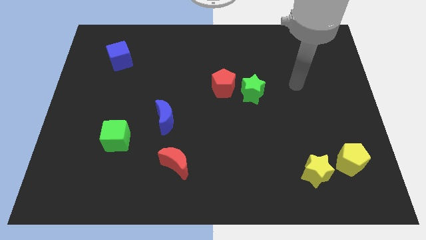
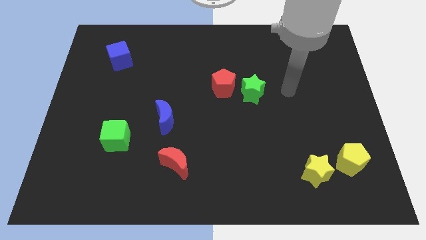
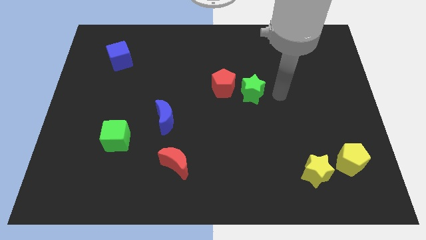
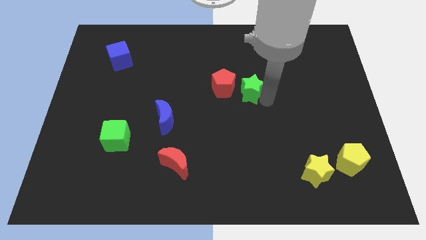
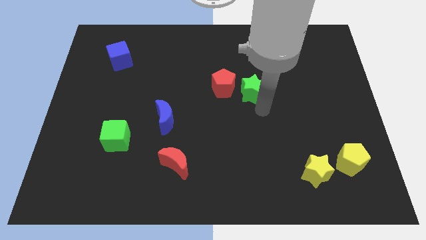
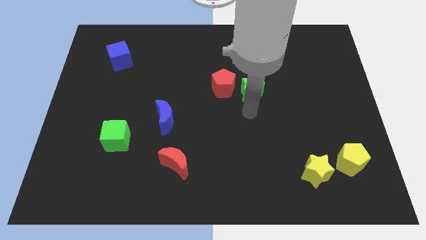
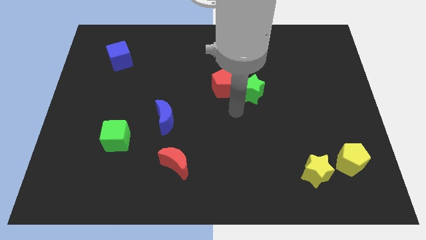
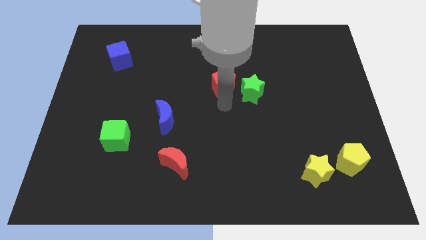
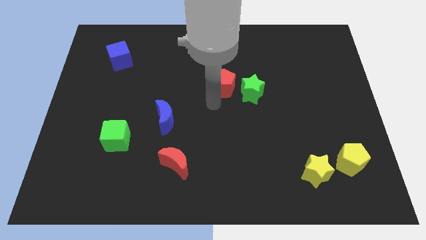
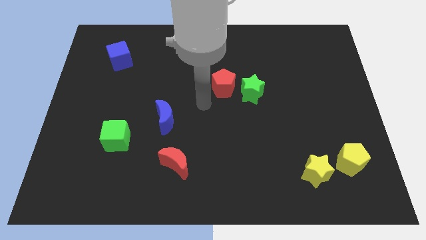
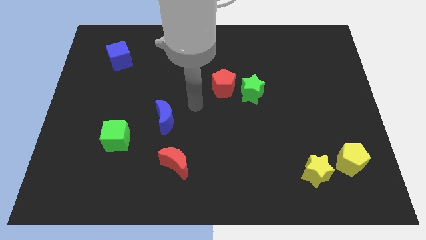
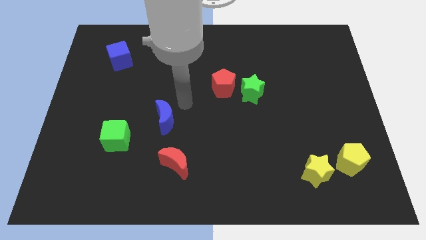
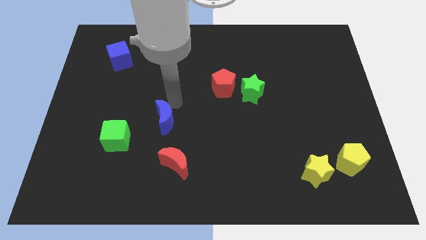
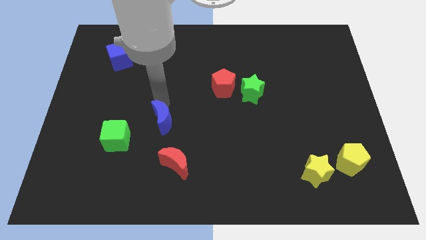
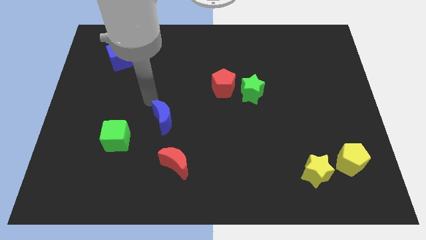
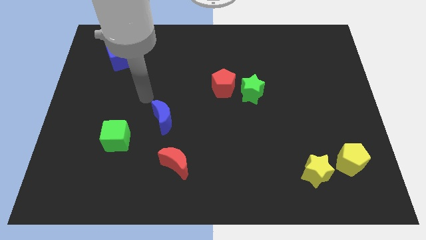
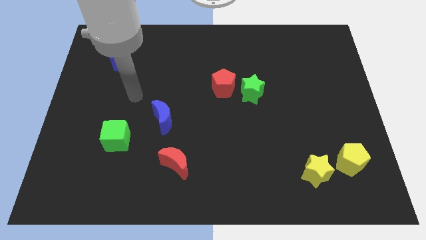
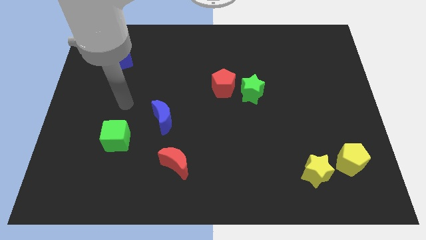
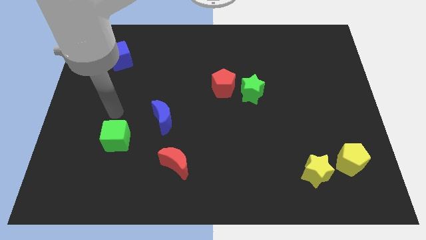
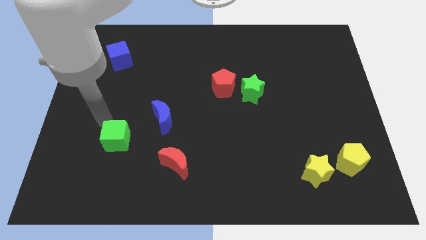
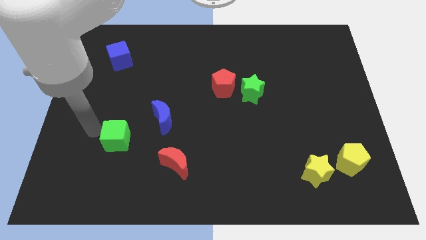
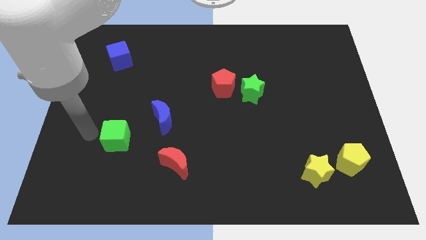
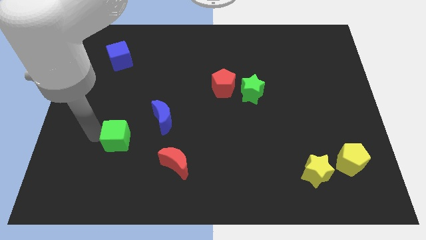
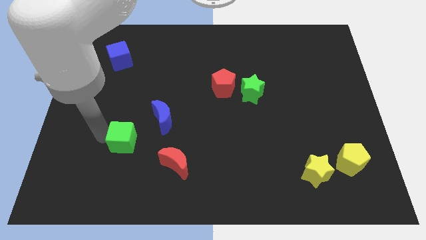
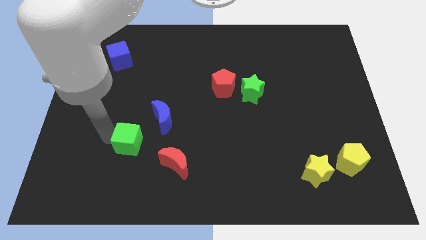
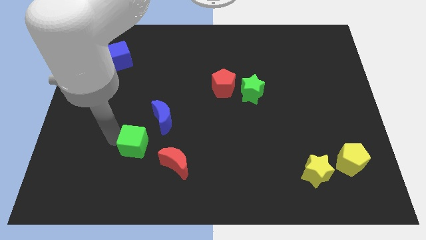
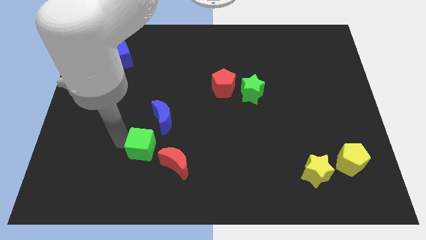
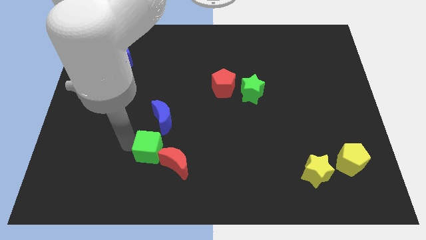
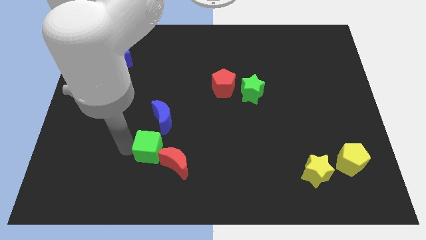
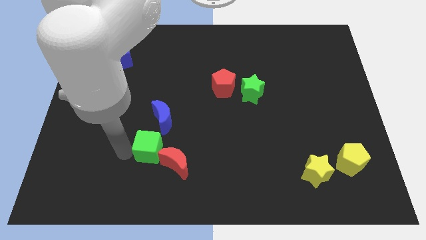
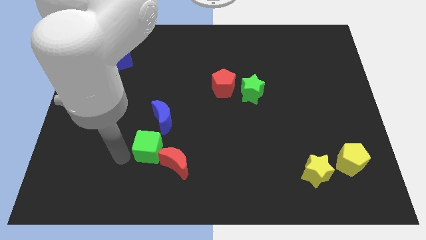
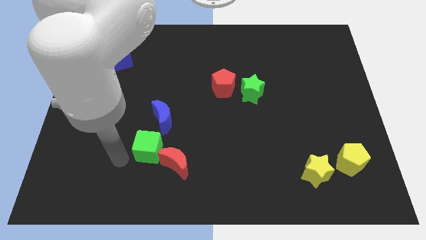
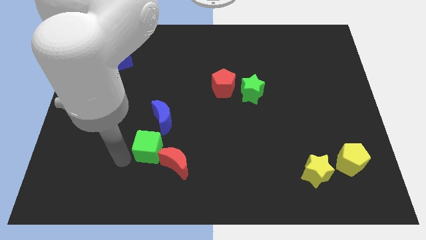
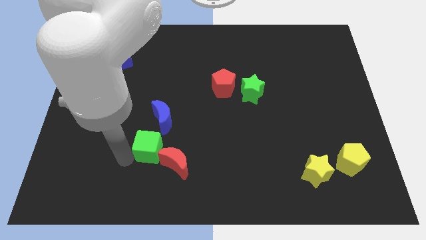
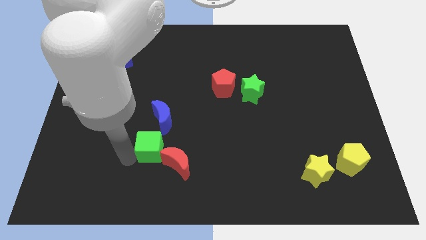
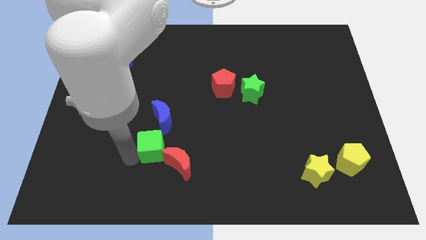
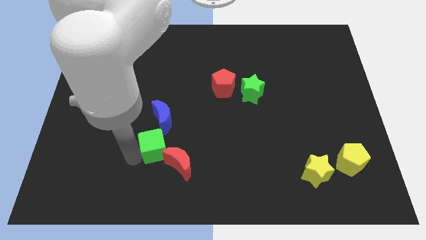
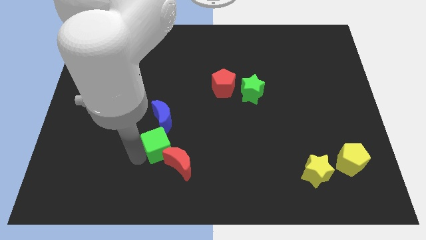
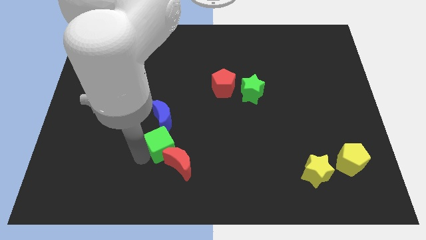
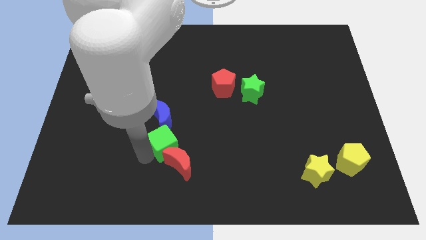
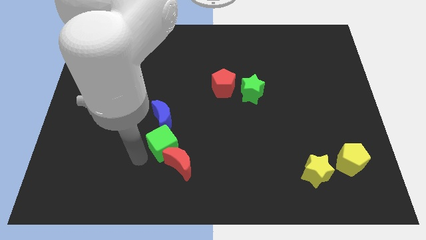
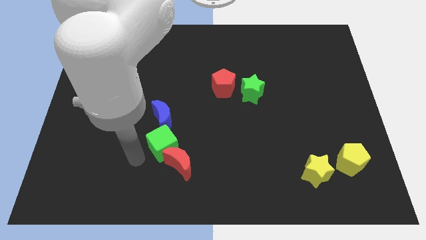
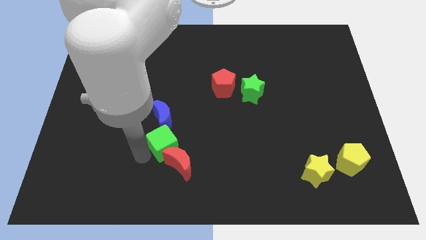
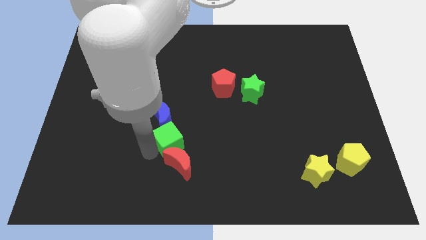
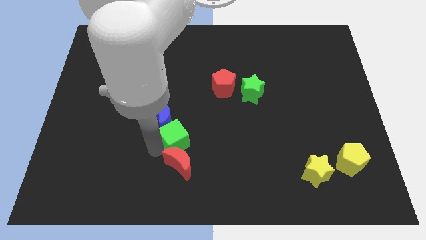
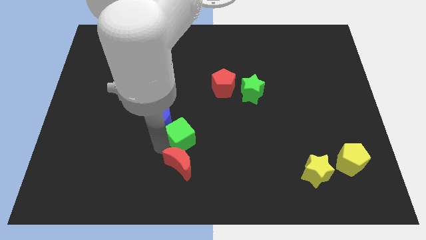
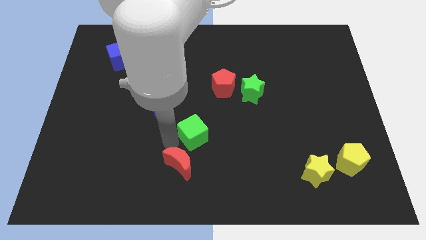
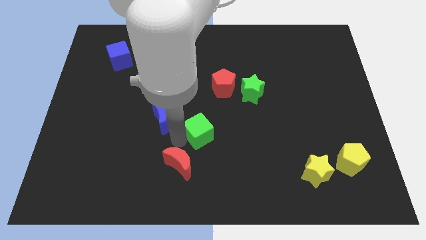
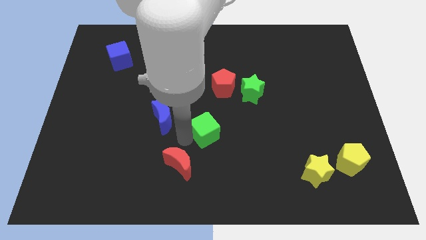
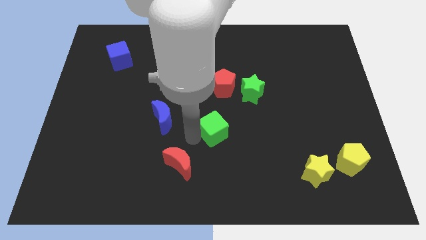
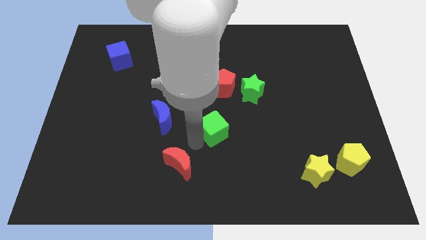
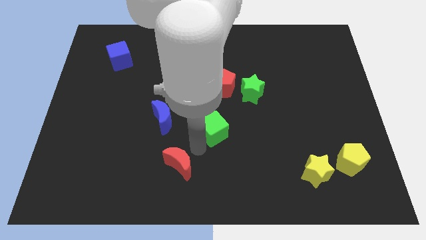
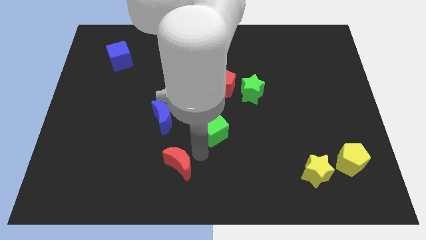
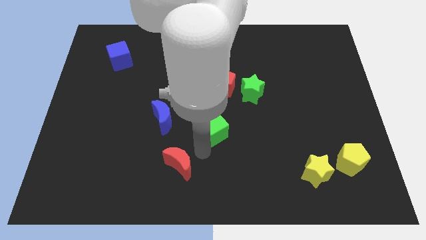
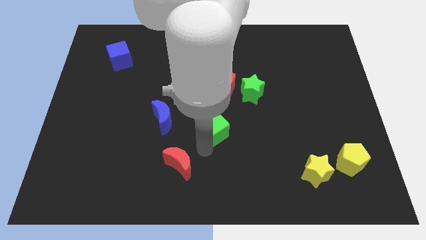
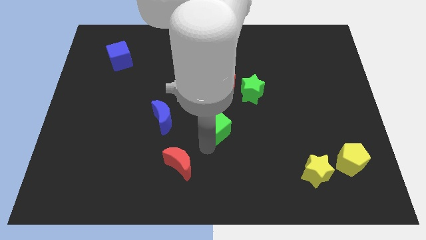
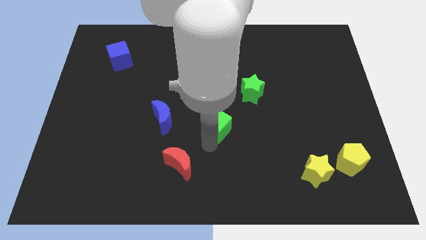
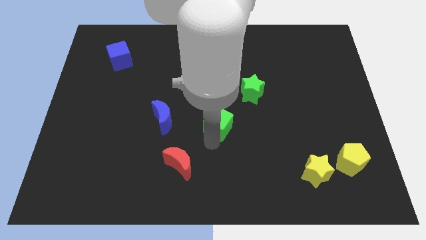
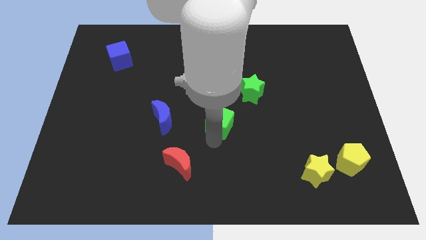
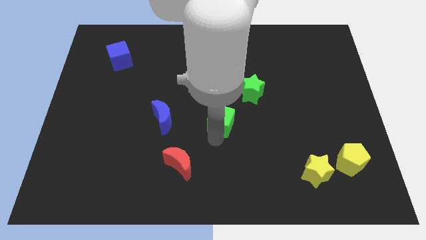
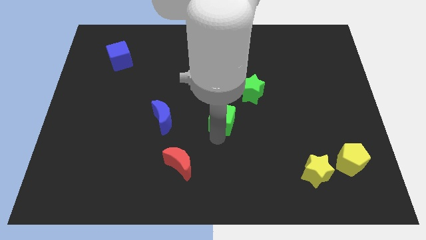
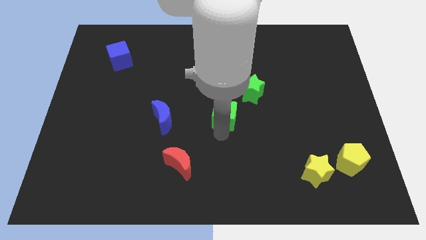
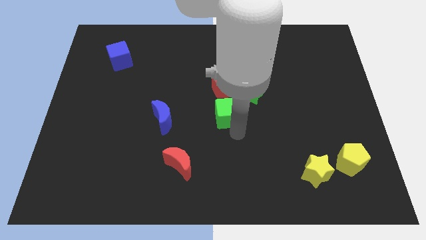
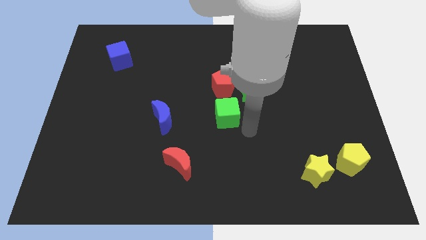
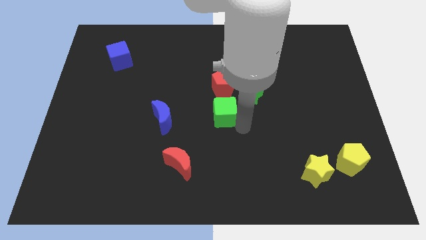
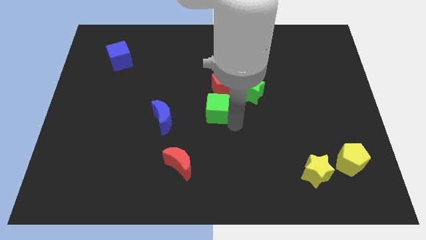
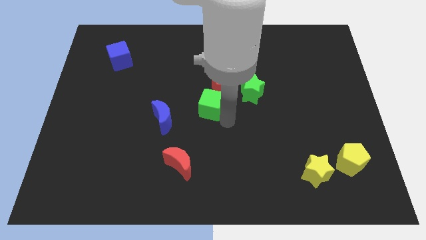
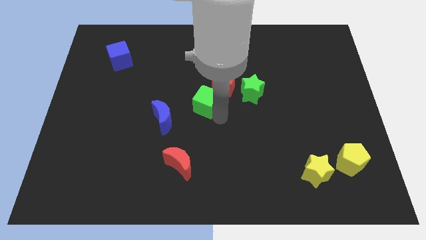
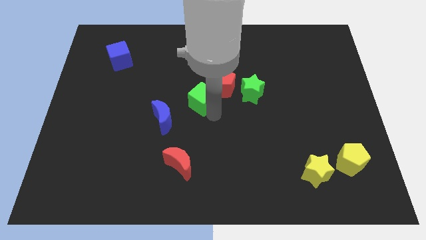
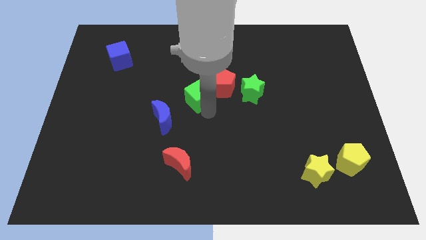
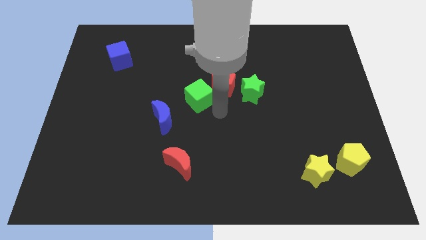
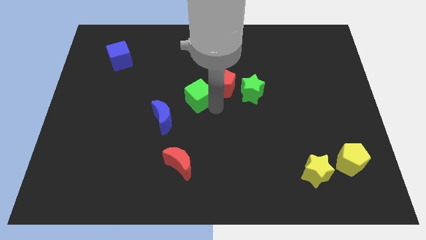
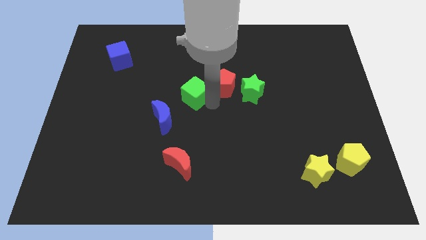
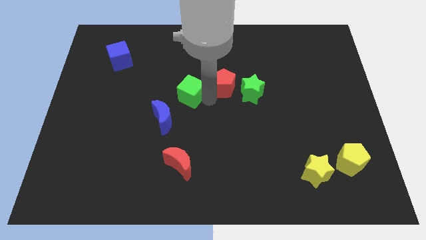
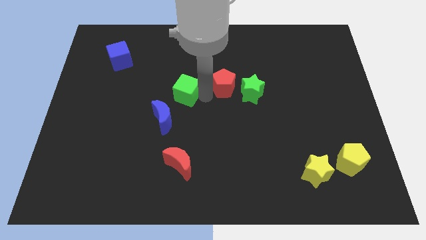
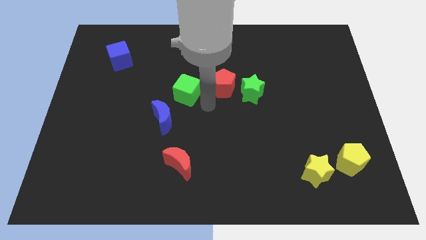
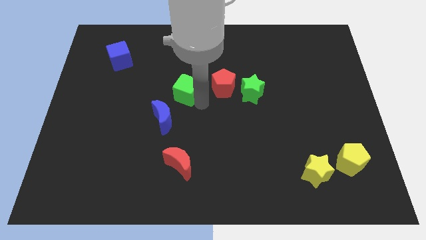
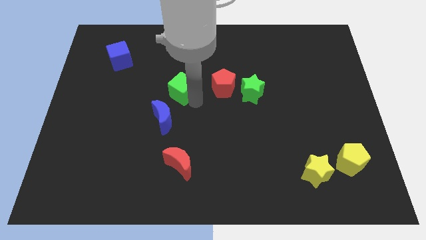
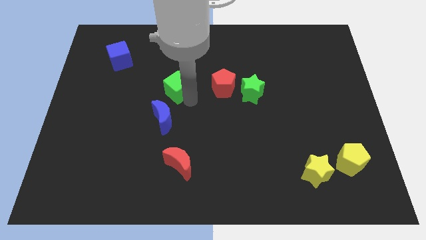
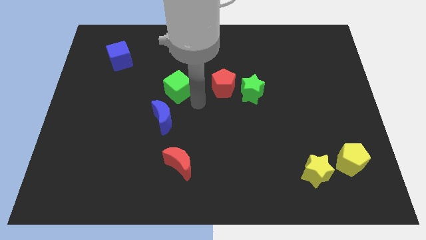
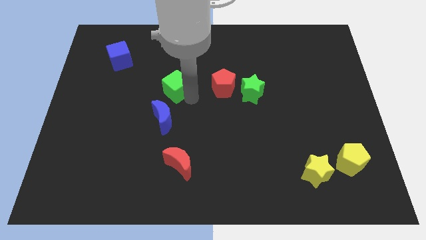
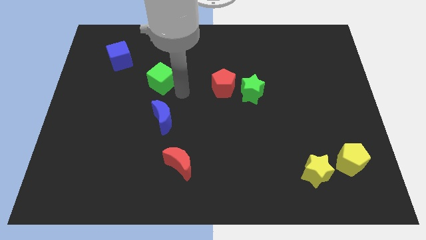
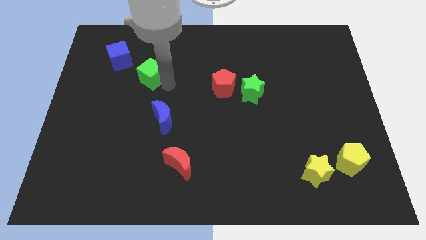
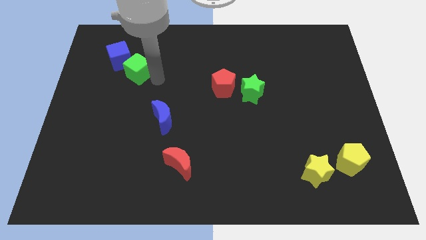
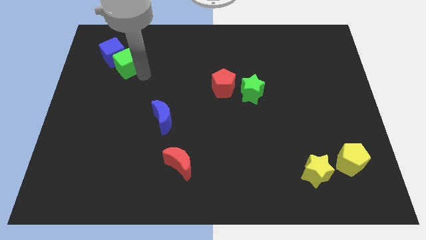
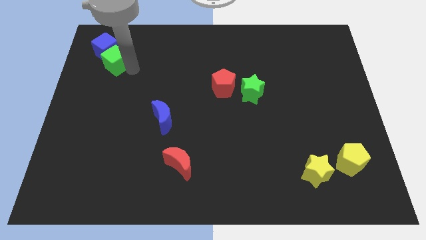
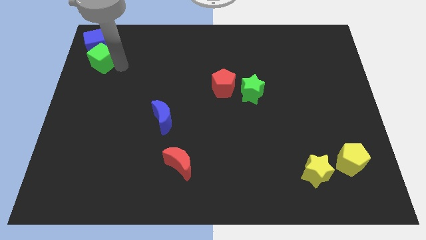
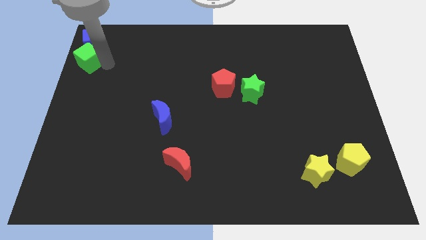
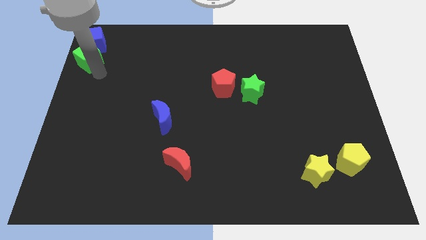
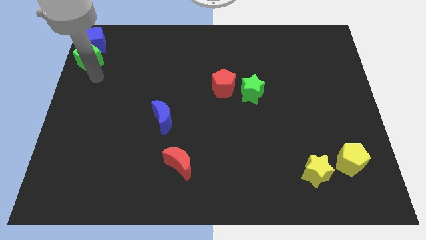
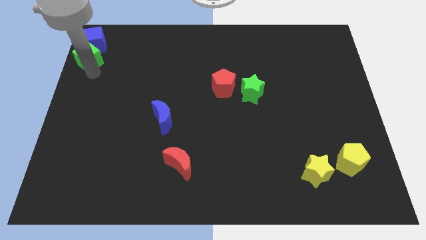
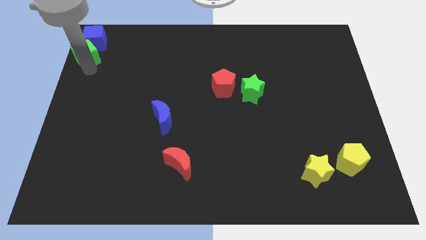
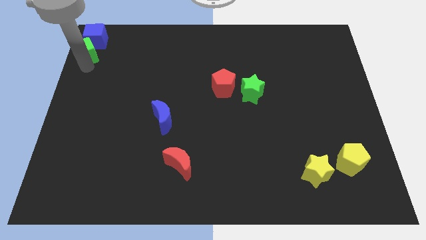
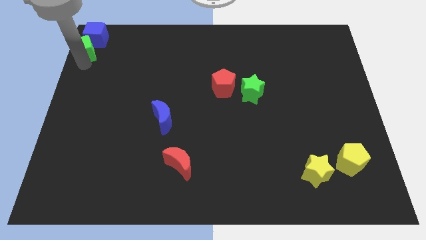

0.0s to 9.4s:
move the green cube to the top left corner
